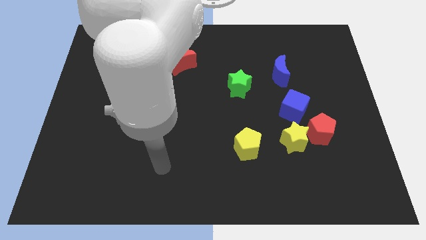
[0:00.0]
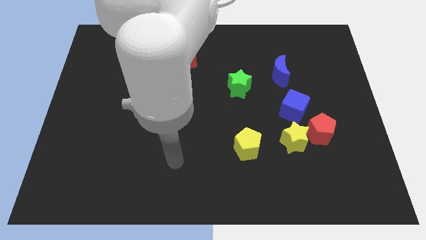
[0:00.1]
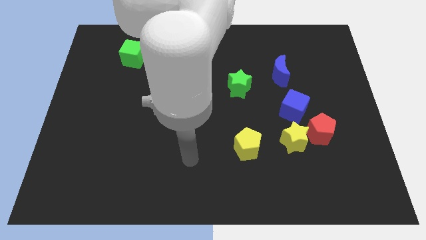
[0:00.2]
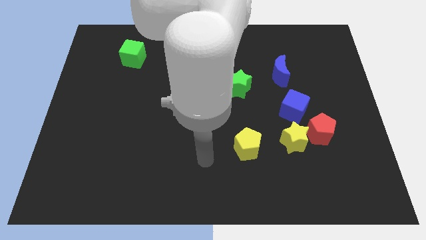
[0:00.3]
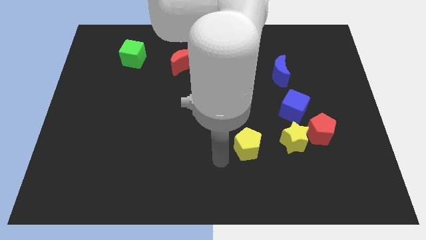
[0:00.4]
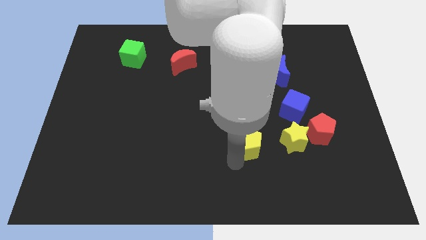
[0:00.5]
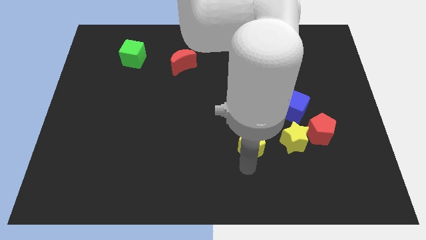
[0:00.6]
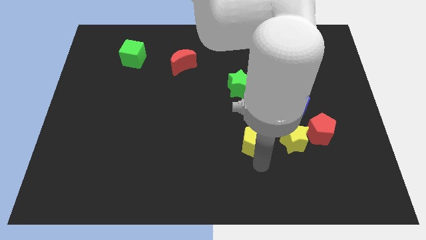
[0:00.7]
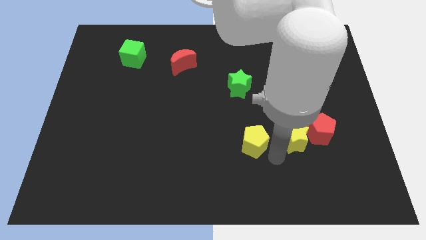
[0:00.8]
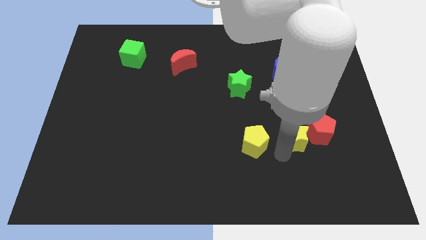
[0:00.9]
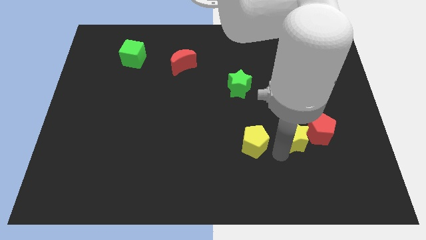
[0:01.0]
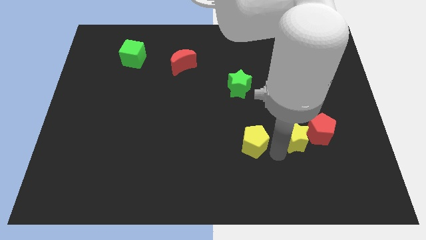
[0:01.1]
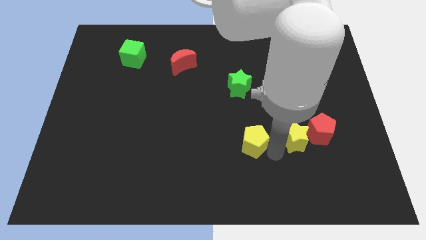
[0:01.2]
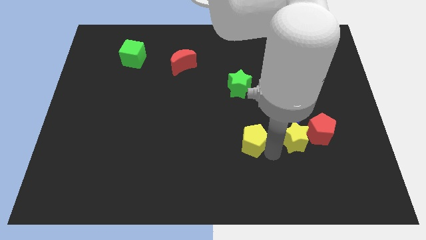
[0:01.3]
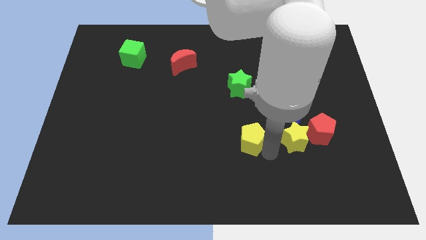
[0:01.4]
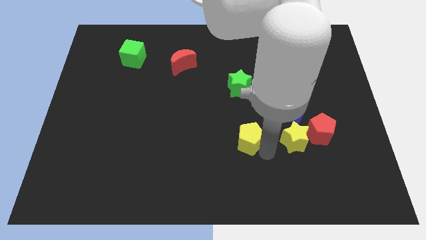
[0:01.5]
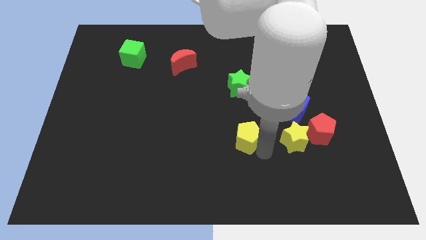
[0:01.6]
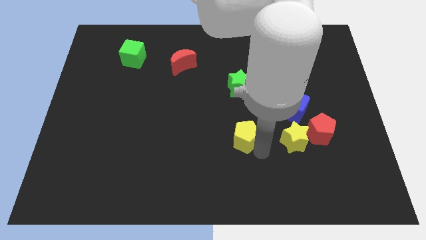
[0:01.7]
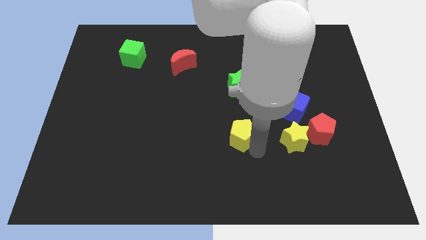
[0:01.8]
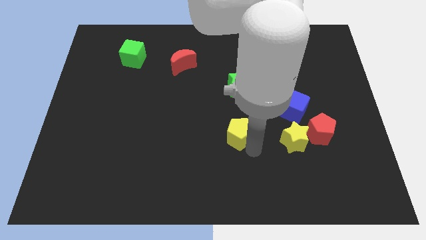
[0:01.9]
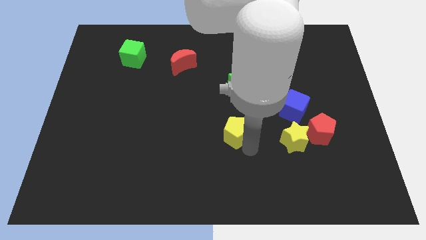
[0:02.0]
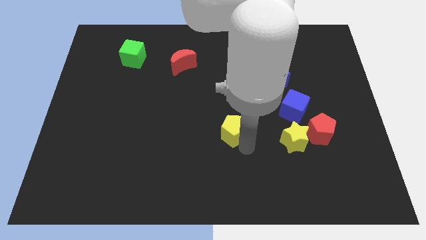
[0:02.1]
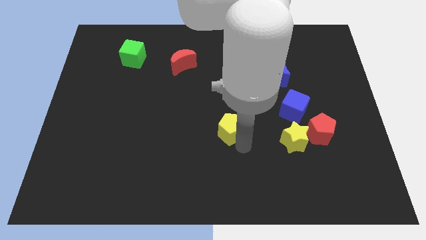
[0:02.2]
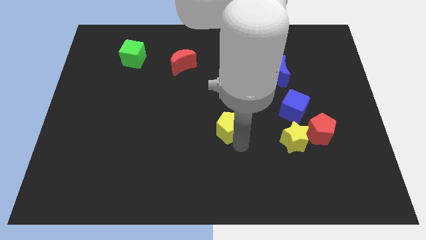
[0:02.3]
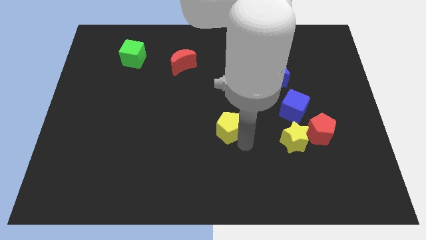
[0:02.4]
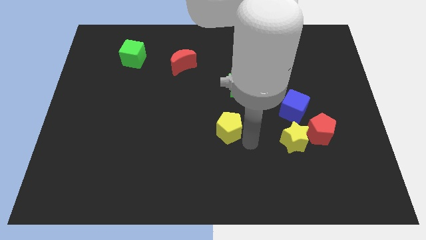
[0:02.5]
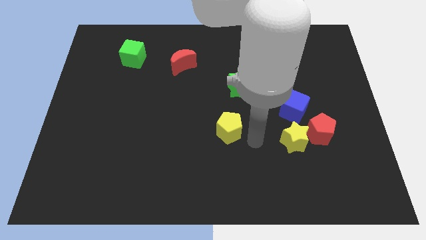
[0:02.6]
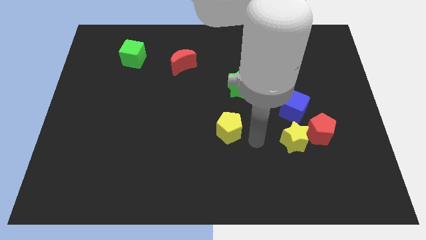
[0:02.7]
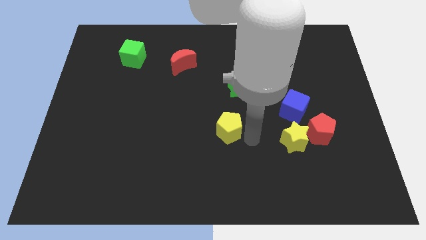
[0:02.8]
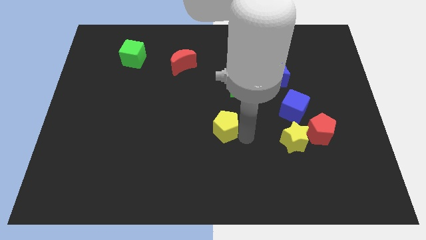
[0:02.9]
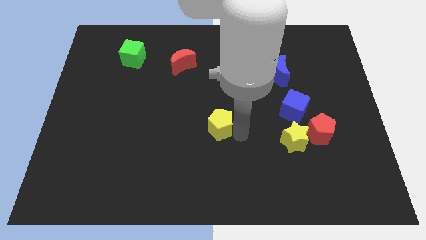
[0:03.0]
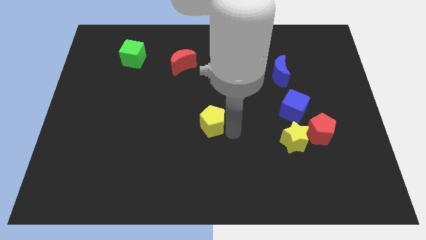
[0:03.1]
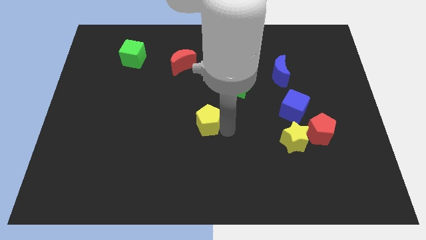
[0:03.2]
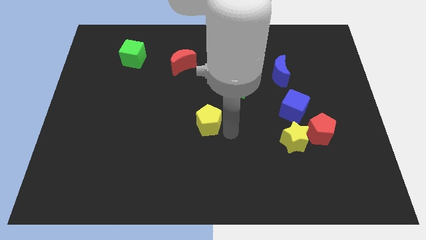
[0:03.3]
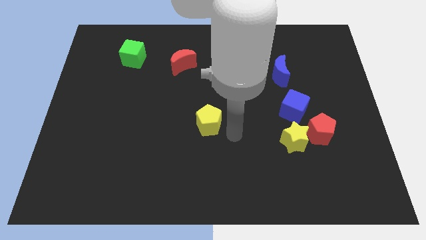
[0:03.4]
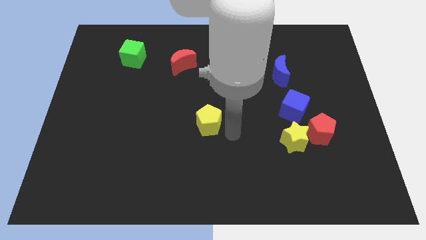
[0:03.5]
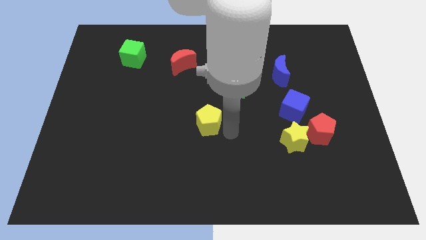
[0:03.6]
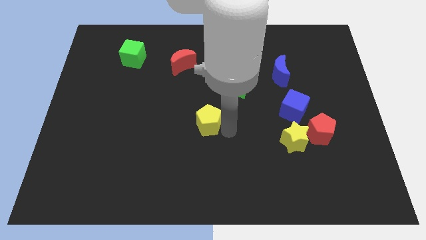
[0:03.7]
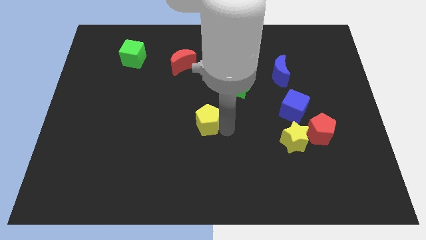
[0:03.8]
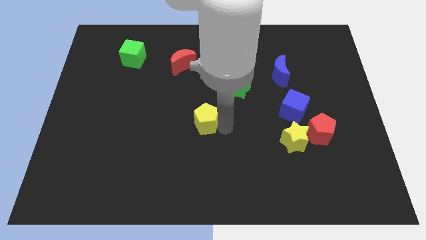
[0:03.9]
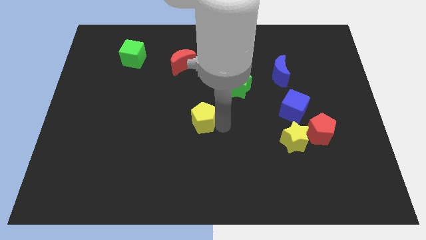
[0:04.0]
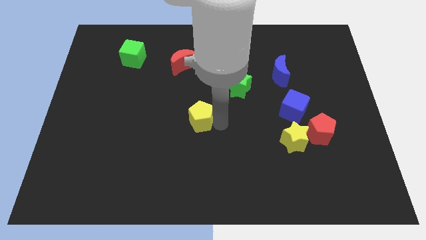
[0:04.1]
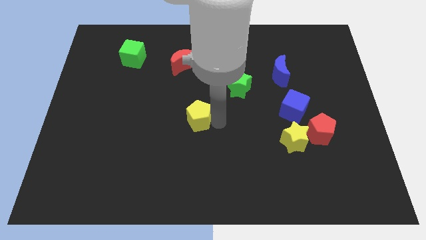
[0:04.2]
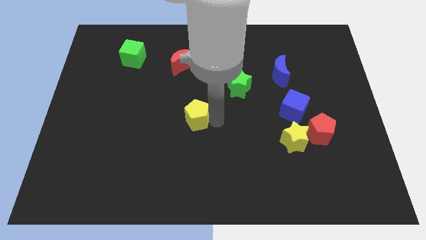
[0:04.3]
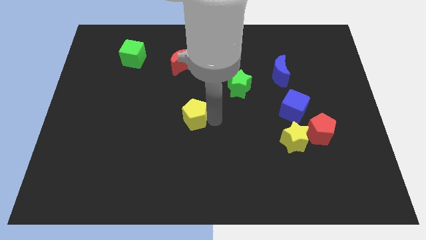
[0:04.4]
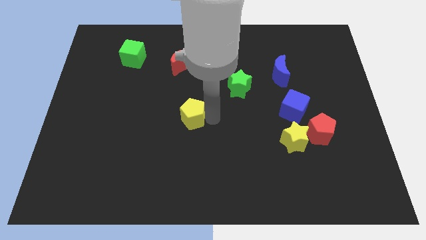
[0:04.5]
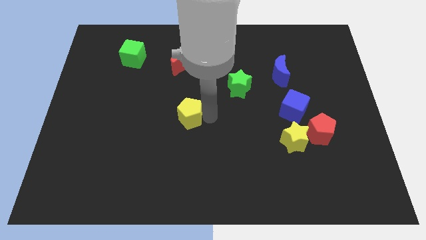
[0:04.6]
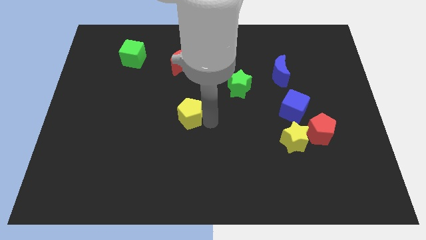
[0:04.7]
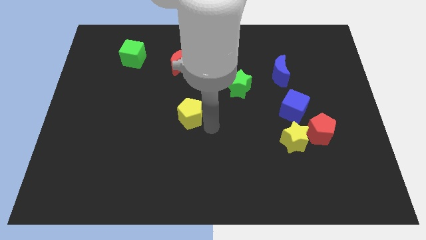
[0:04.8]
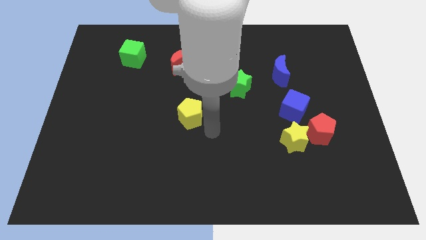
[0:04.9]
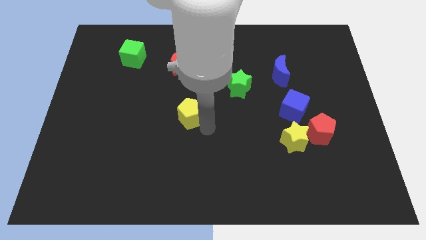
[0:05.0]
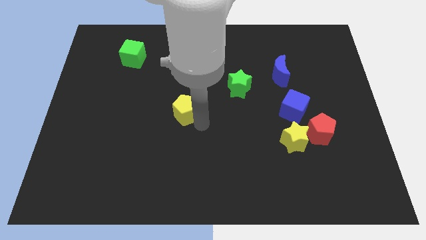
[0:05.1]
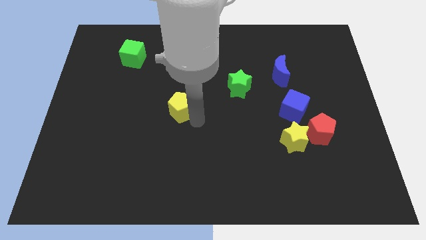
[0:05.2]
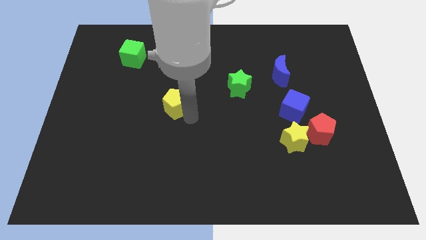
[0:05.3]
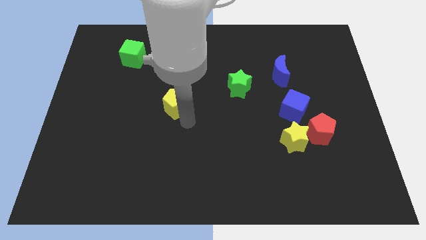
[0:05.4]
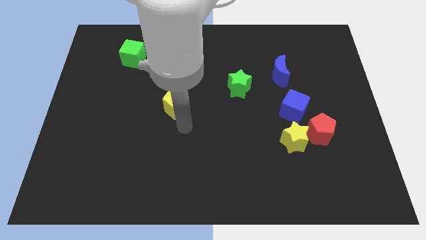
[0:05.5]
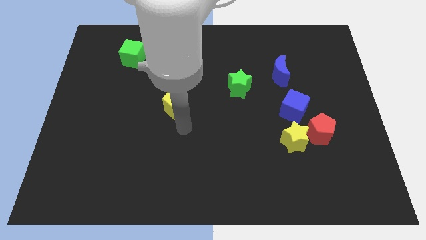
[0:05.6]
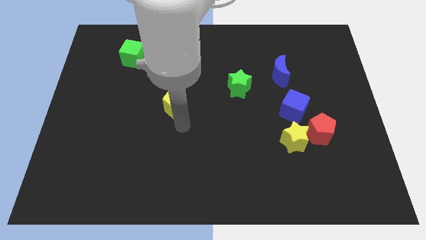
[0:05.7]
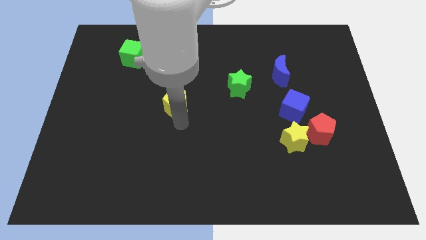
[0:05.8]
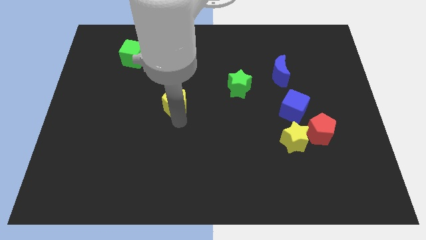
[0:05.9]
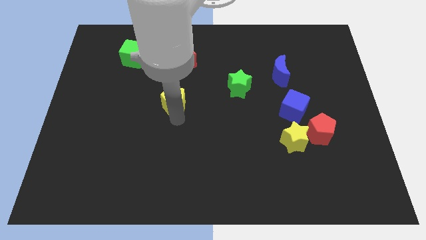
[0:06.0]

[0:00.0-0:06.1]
move the yellow pentagon upwards and then left

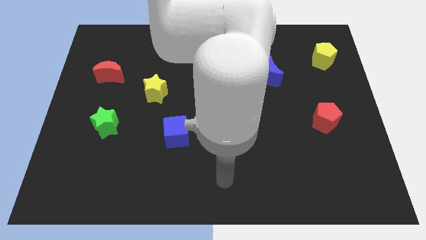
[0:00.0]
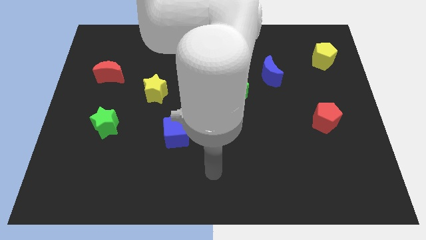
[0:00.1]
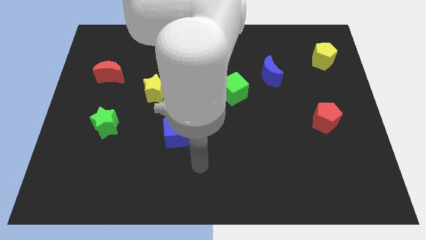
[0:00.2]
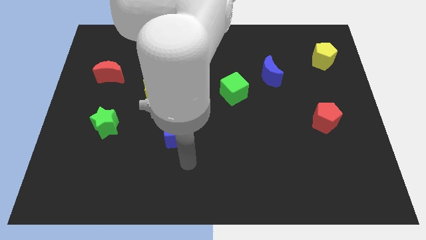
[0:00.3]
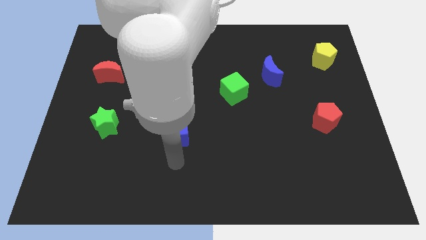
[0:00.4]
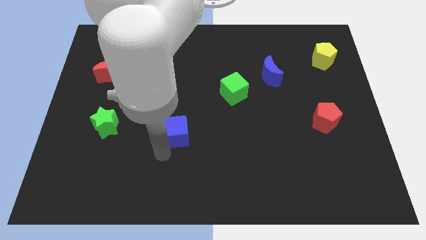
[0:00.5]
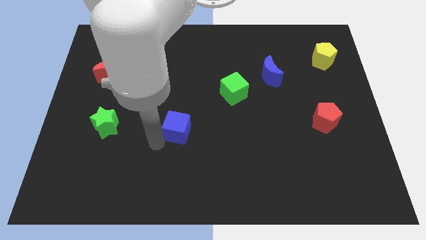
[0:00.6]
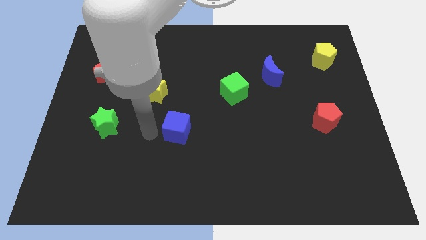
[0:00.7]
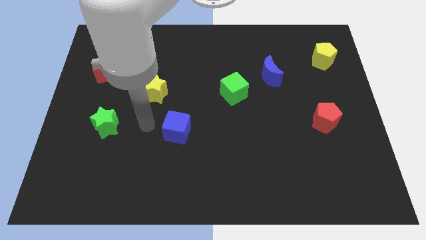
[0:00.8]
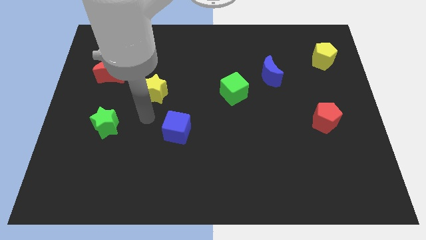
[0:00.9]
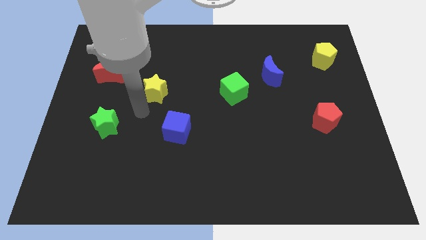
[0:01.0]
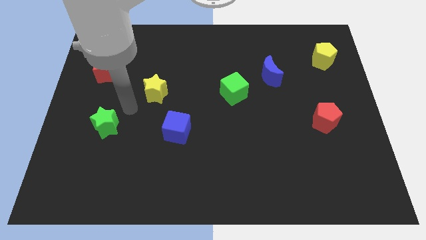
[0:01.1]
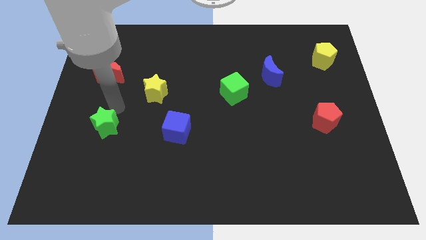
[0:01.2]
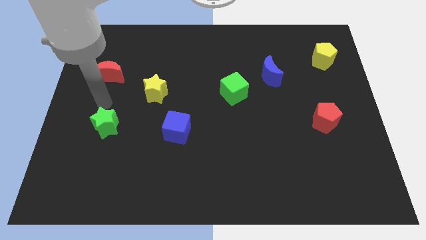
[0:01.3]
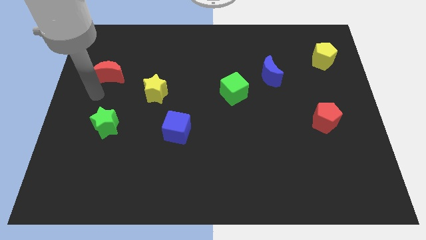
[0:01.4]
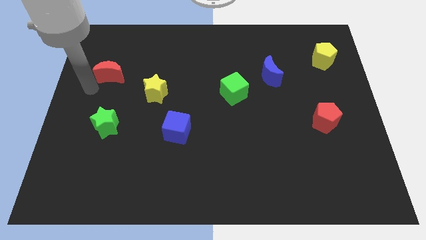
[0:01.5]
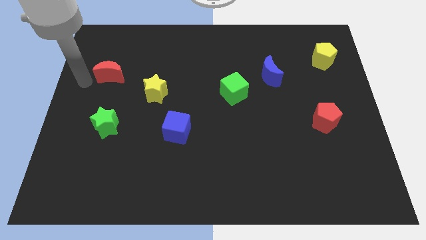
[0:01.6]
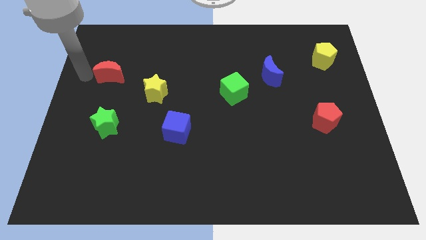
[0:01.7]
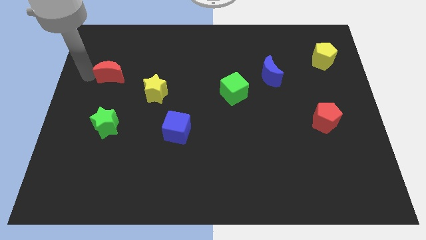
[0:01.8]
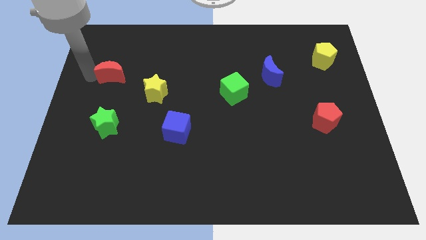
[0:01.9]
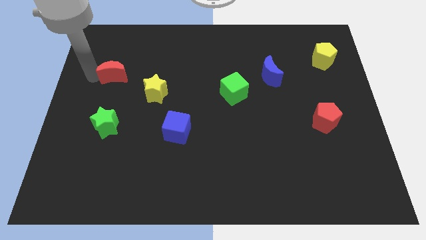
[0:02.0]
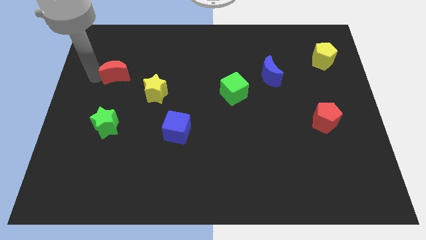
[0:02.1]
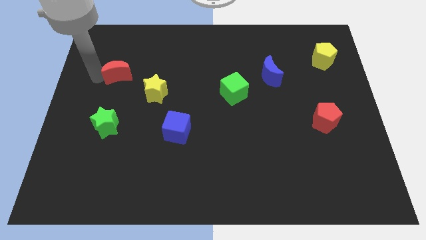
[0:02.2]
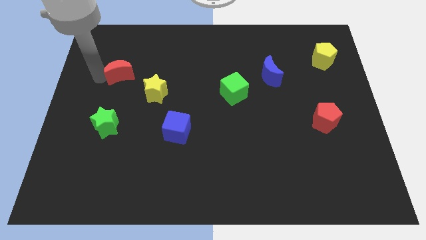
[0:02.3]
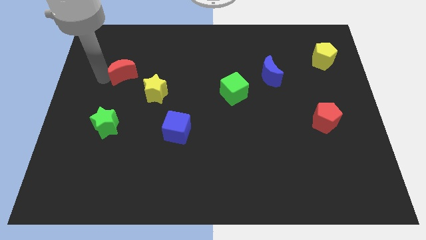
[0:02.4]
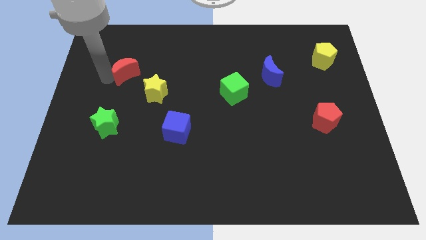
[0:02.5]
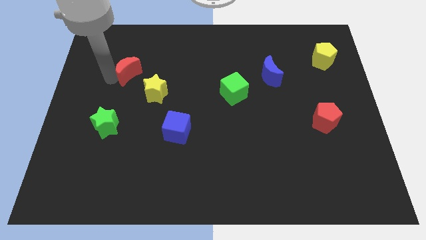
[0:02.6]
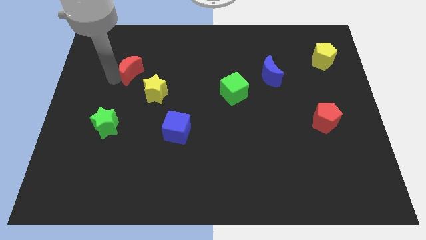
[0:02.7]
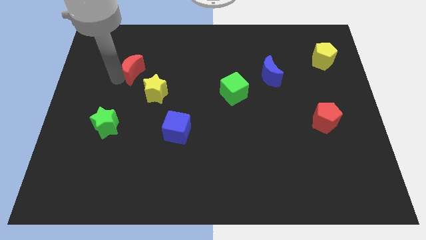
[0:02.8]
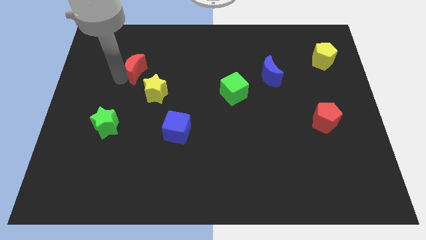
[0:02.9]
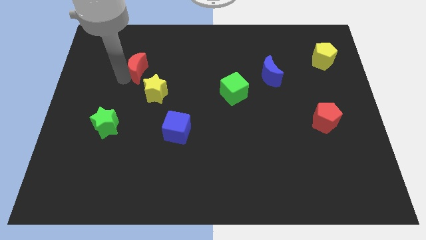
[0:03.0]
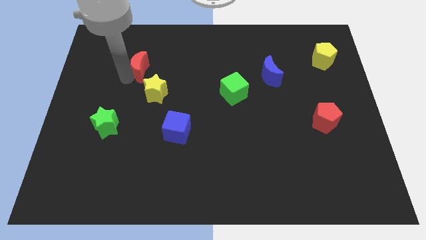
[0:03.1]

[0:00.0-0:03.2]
move the red moon somewhat to the right
